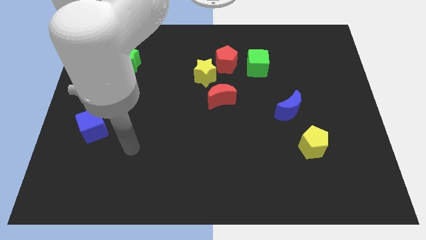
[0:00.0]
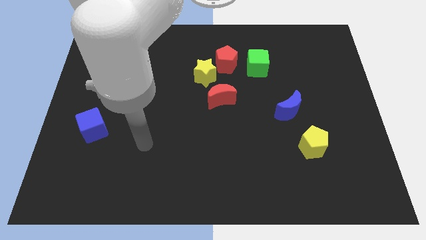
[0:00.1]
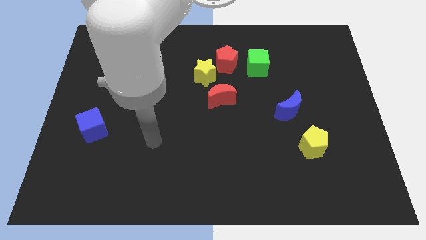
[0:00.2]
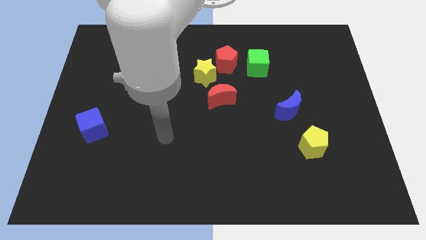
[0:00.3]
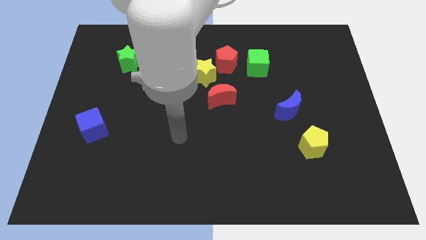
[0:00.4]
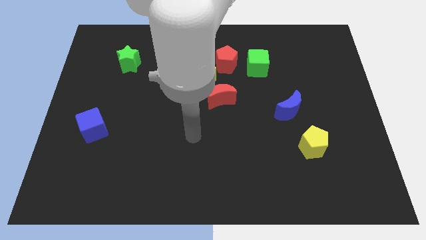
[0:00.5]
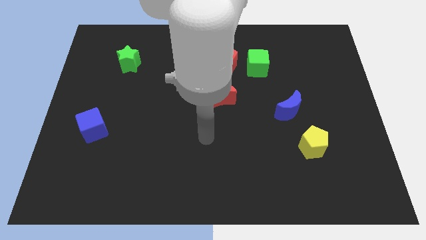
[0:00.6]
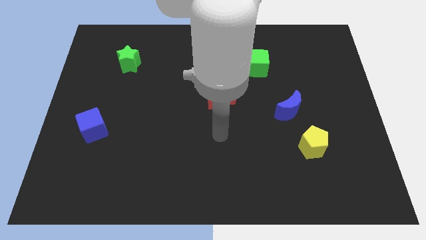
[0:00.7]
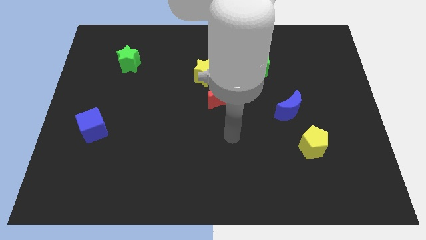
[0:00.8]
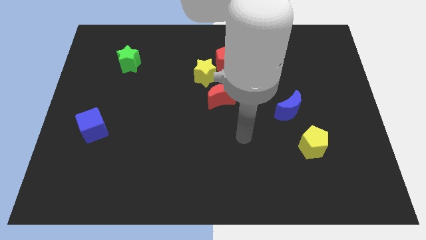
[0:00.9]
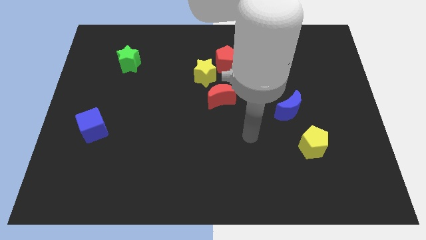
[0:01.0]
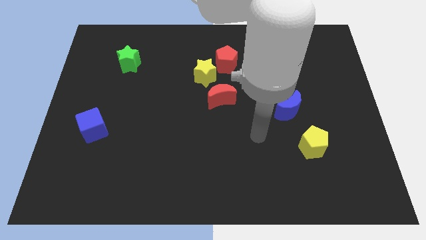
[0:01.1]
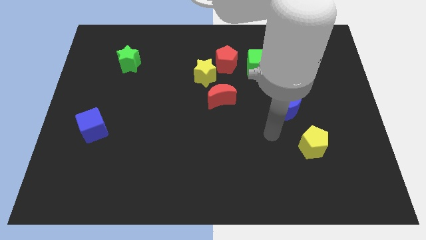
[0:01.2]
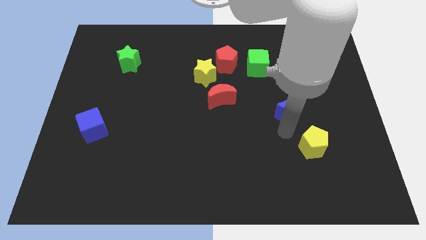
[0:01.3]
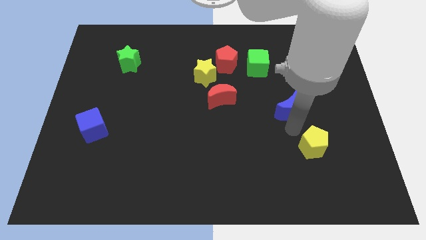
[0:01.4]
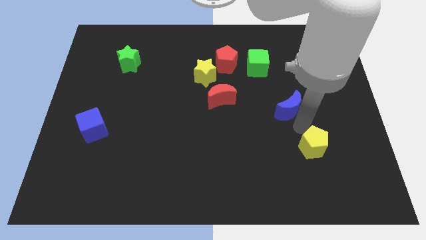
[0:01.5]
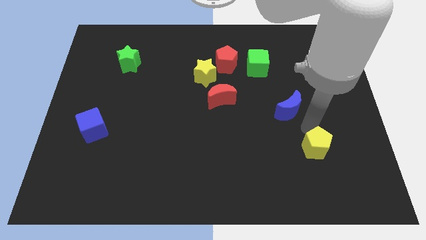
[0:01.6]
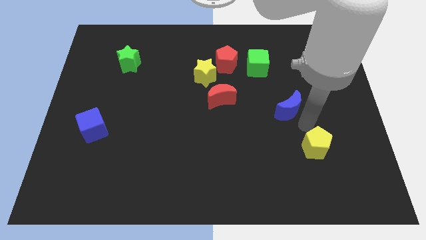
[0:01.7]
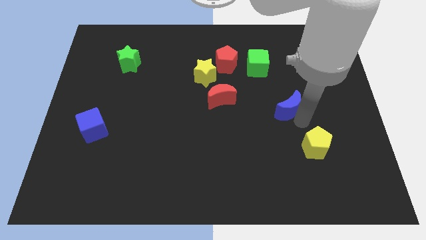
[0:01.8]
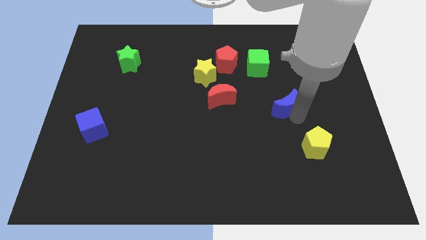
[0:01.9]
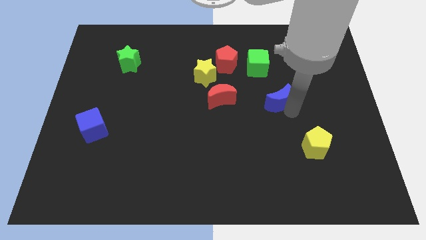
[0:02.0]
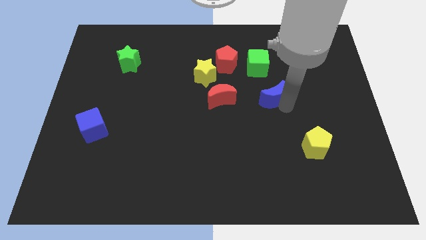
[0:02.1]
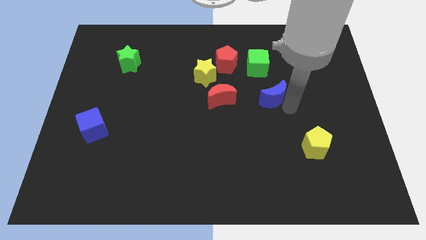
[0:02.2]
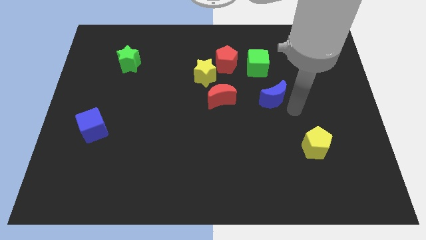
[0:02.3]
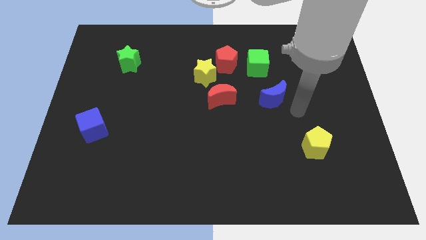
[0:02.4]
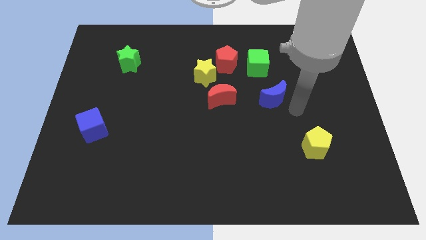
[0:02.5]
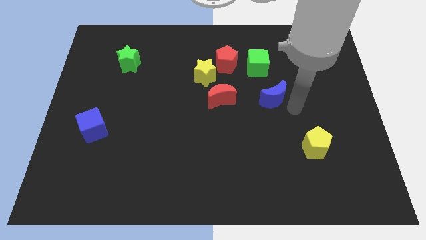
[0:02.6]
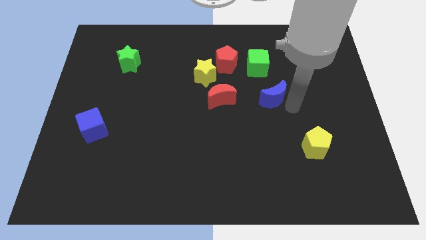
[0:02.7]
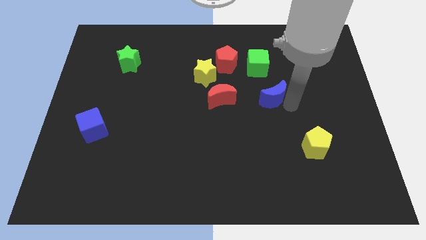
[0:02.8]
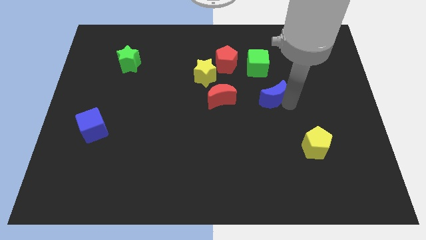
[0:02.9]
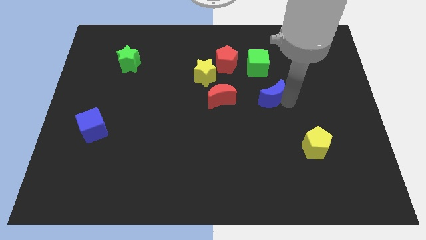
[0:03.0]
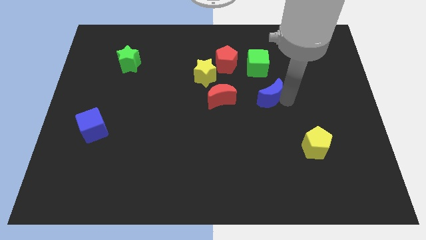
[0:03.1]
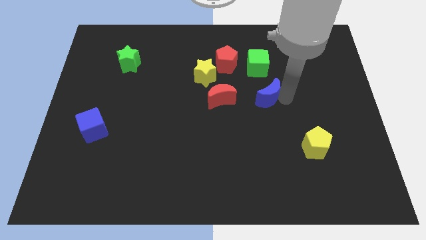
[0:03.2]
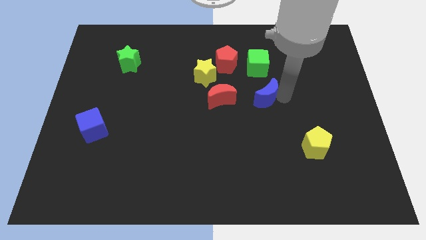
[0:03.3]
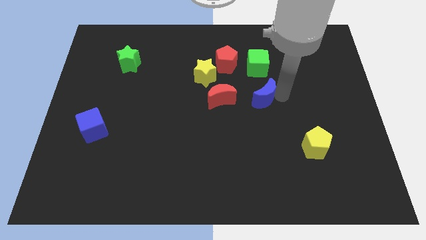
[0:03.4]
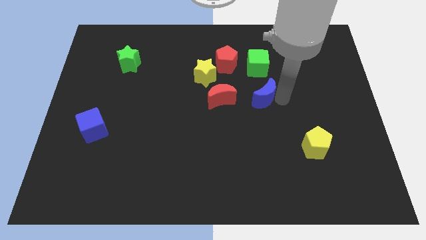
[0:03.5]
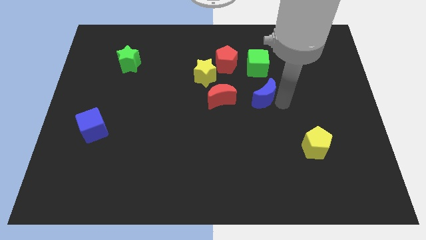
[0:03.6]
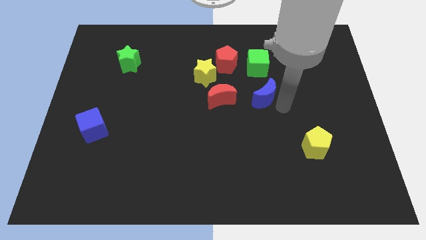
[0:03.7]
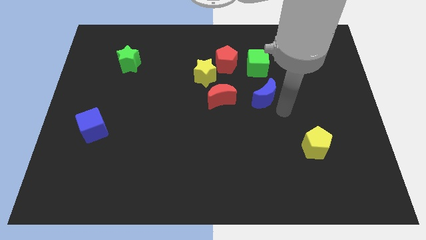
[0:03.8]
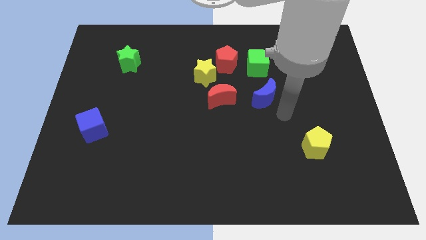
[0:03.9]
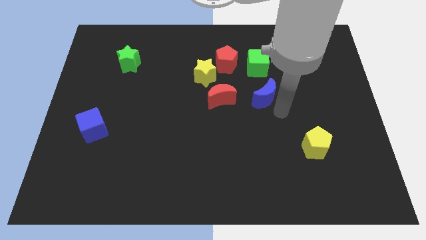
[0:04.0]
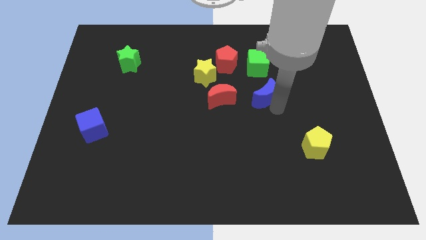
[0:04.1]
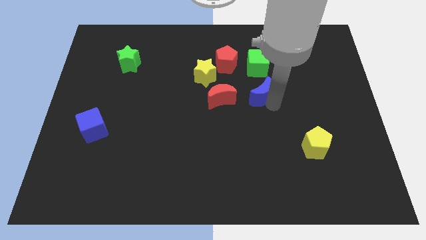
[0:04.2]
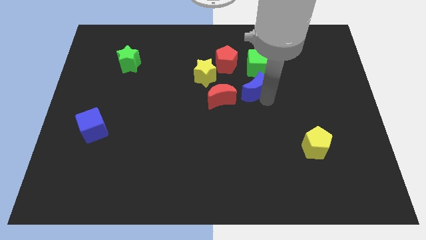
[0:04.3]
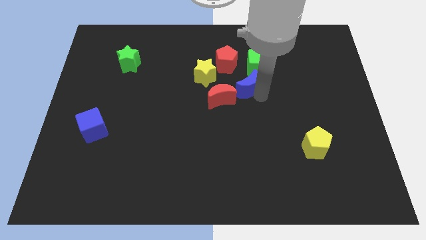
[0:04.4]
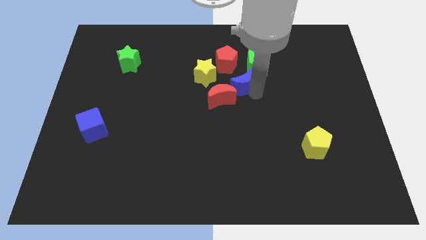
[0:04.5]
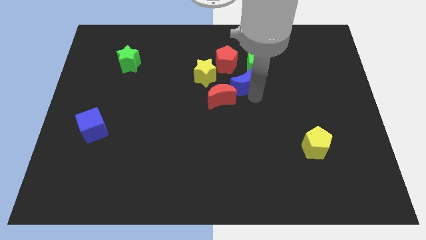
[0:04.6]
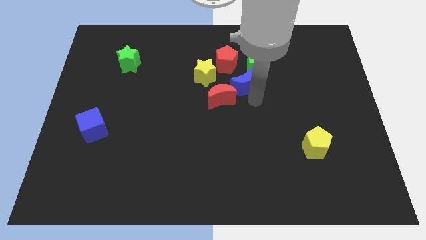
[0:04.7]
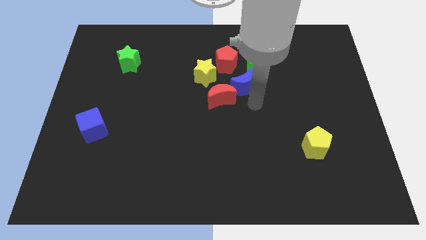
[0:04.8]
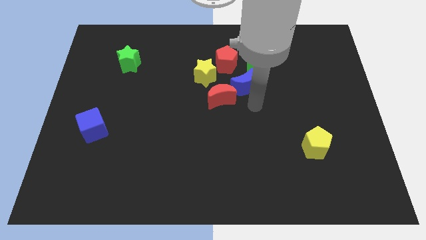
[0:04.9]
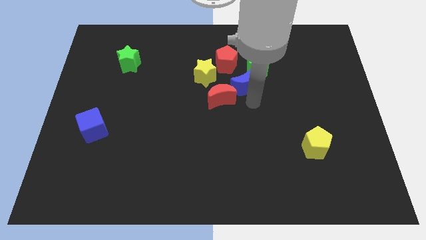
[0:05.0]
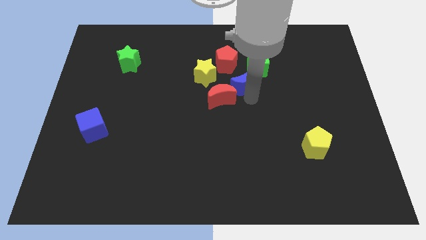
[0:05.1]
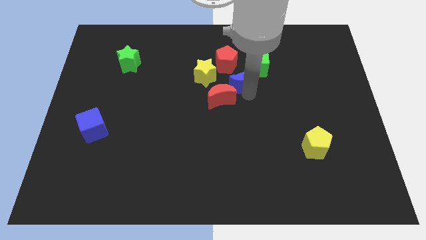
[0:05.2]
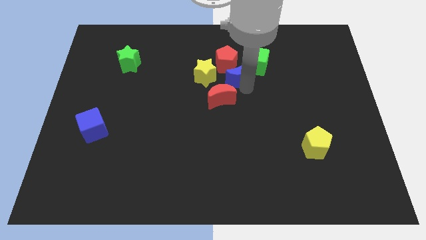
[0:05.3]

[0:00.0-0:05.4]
push the blue moon towards the red pentagon

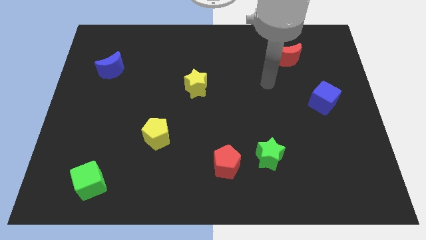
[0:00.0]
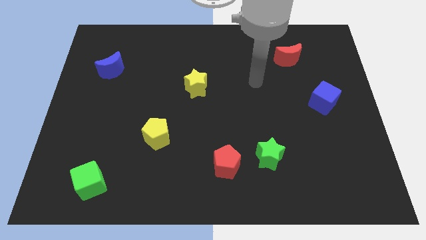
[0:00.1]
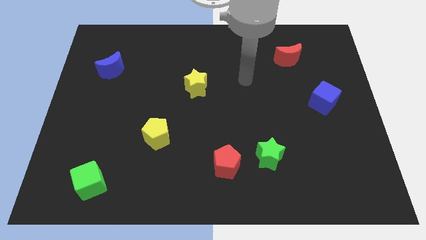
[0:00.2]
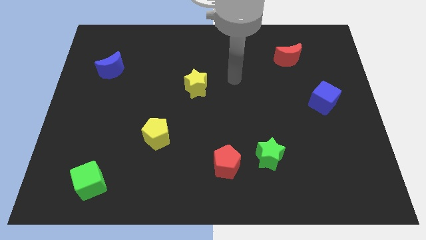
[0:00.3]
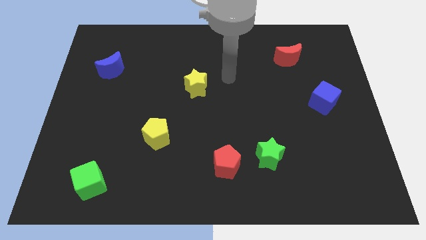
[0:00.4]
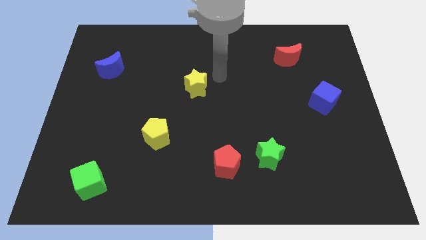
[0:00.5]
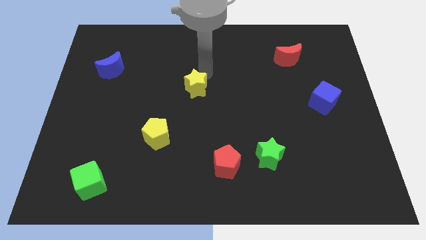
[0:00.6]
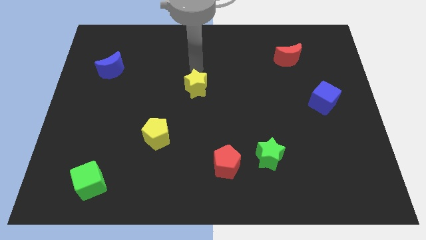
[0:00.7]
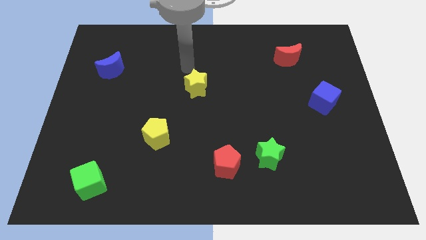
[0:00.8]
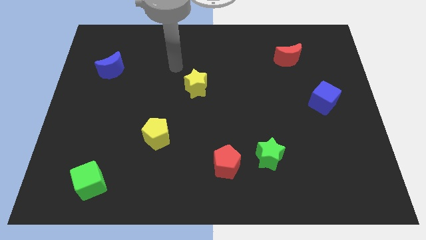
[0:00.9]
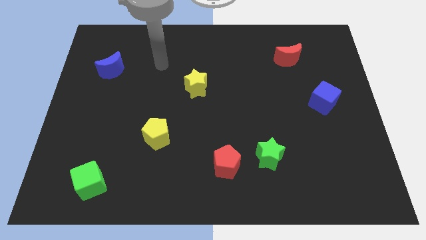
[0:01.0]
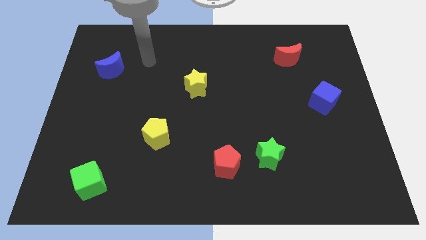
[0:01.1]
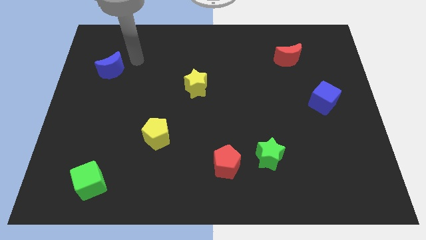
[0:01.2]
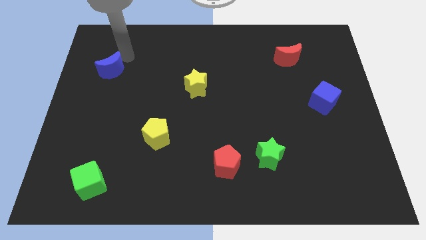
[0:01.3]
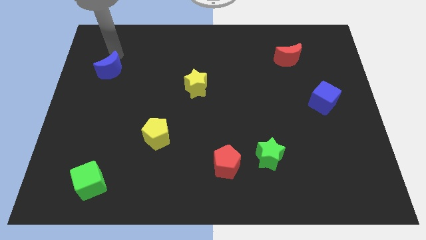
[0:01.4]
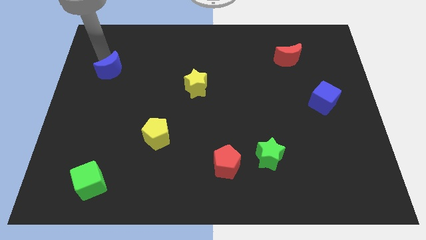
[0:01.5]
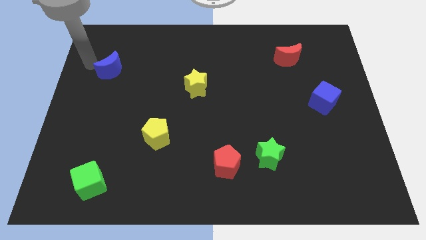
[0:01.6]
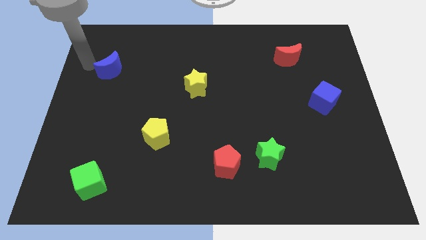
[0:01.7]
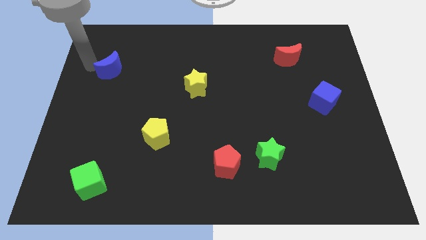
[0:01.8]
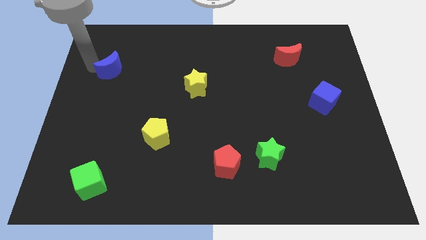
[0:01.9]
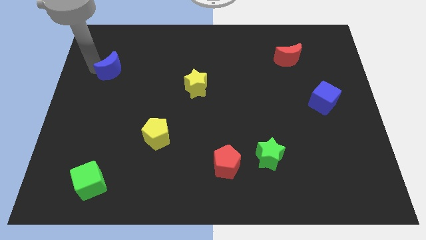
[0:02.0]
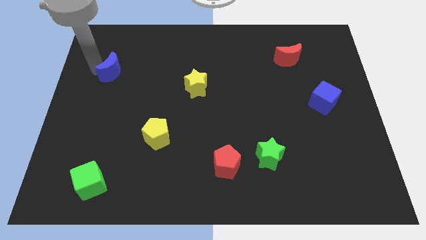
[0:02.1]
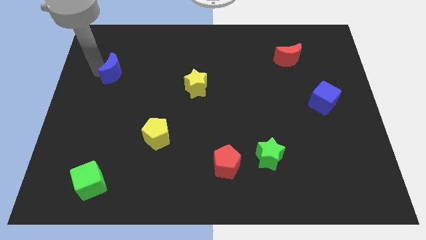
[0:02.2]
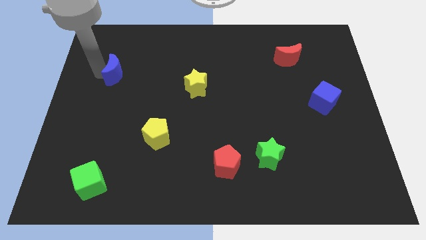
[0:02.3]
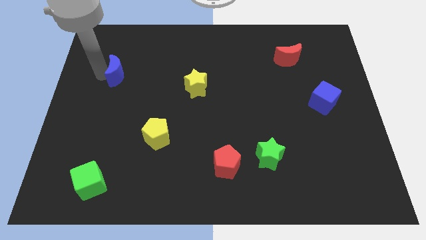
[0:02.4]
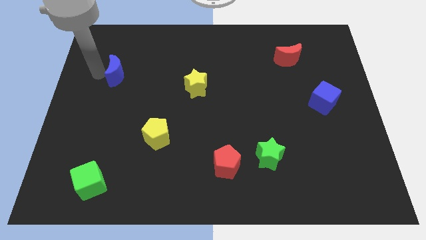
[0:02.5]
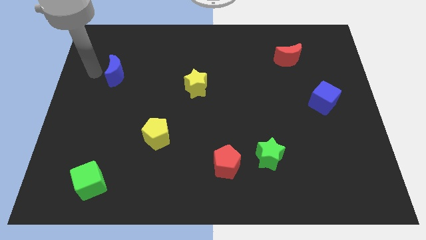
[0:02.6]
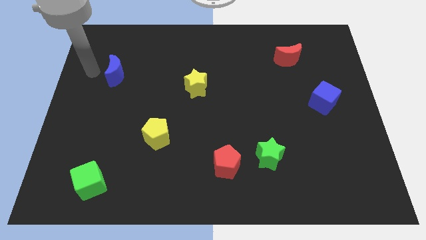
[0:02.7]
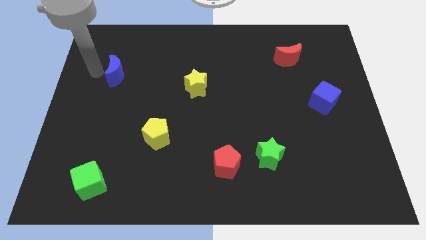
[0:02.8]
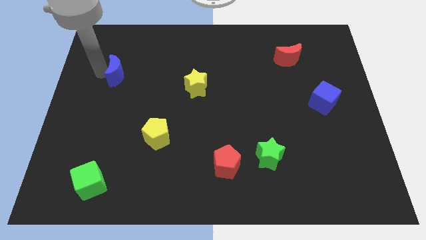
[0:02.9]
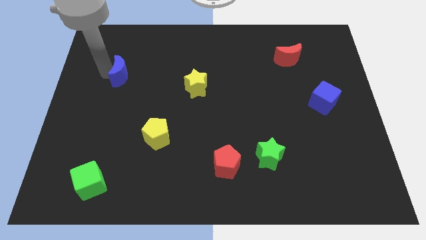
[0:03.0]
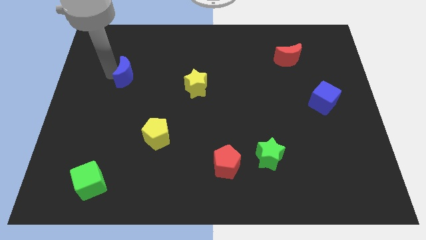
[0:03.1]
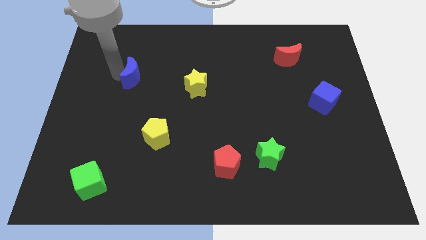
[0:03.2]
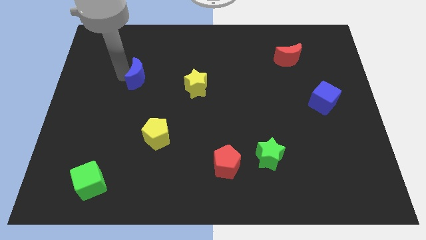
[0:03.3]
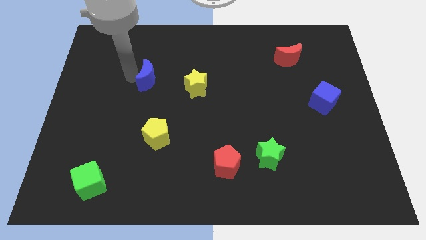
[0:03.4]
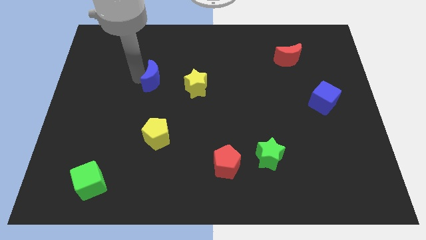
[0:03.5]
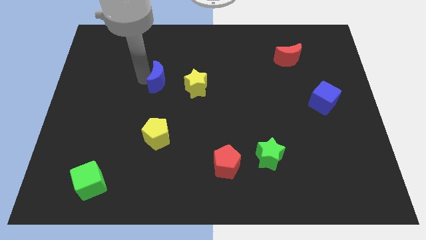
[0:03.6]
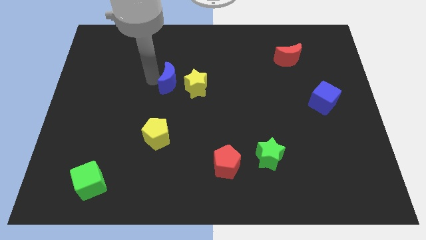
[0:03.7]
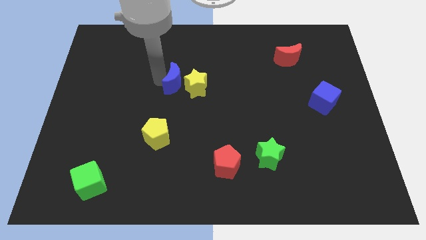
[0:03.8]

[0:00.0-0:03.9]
put the blue moon to the yellow star
